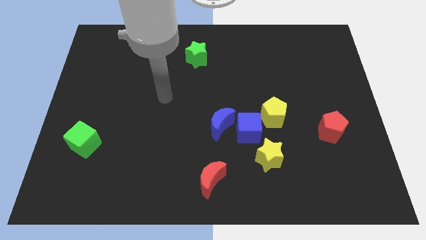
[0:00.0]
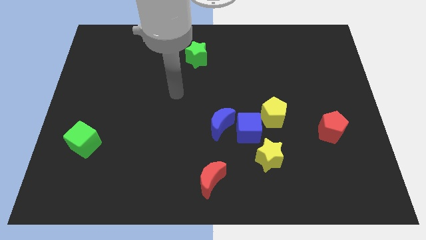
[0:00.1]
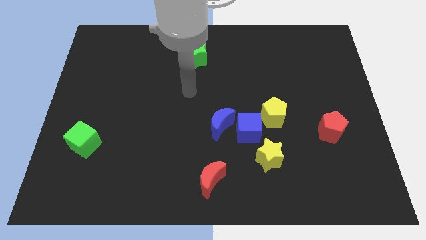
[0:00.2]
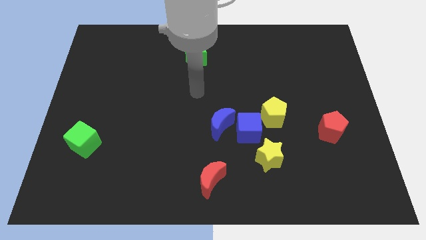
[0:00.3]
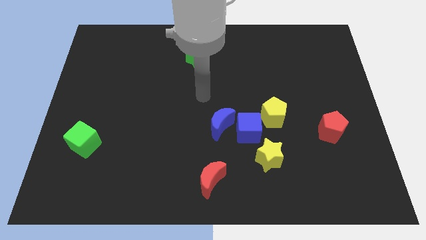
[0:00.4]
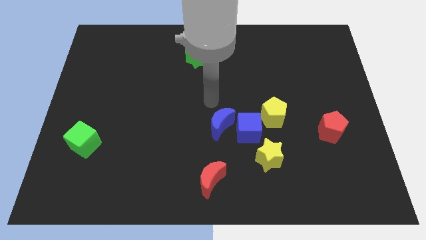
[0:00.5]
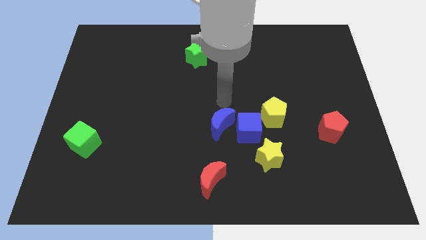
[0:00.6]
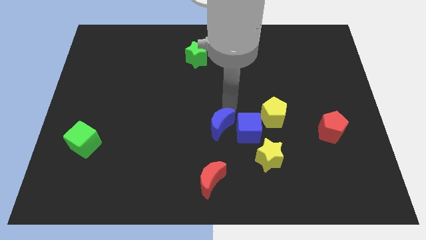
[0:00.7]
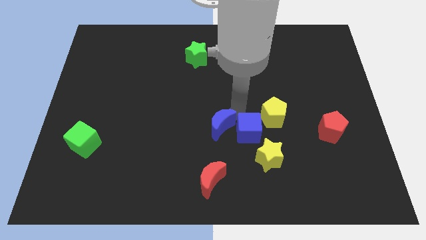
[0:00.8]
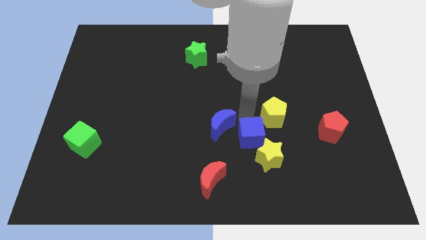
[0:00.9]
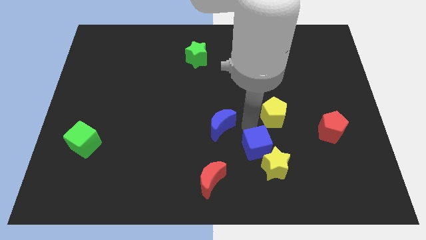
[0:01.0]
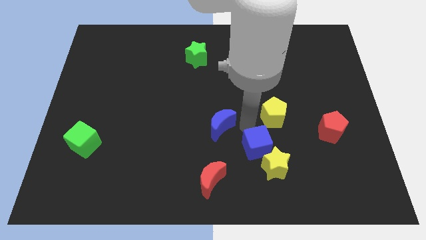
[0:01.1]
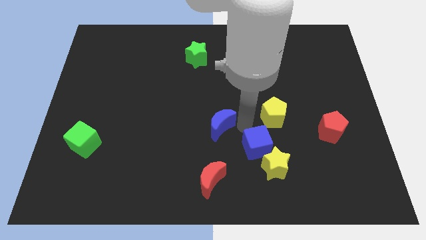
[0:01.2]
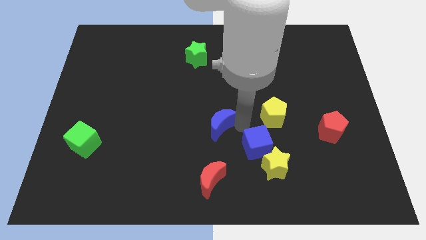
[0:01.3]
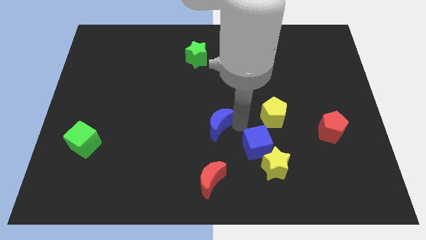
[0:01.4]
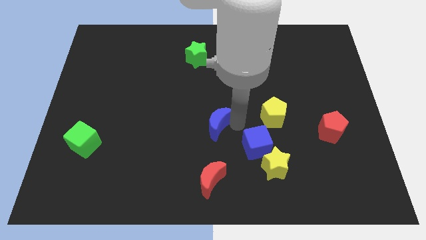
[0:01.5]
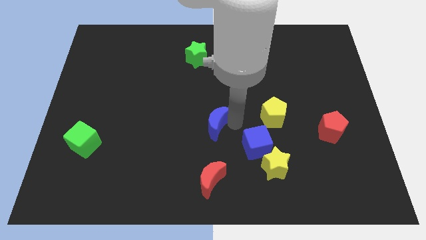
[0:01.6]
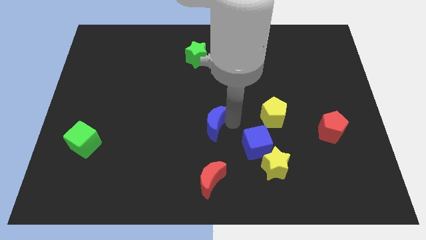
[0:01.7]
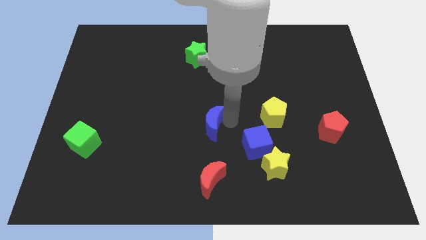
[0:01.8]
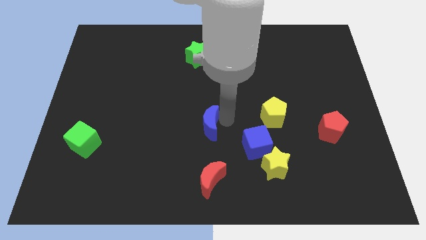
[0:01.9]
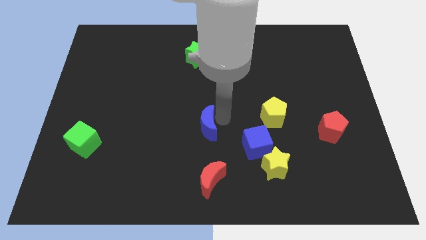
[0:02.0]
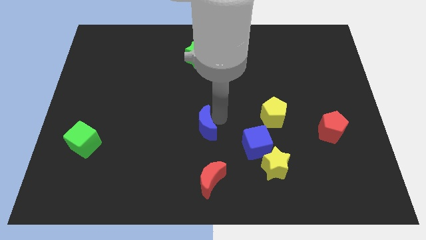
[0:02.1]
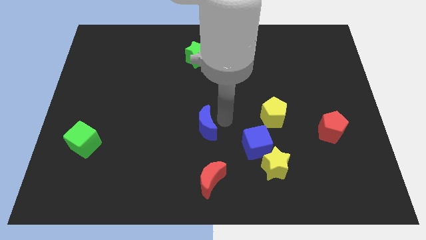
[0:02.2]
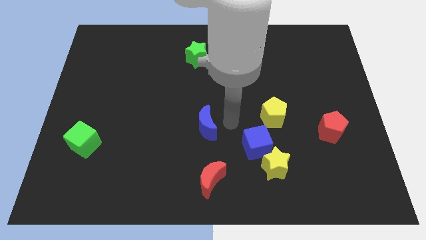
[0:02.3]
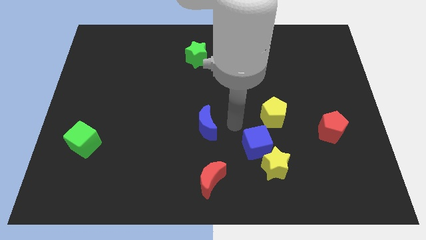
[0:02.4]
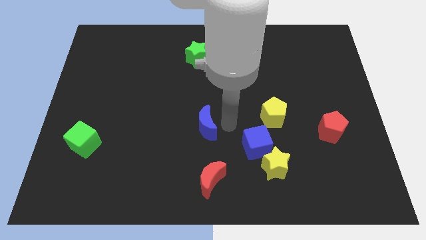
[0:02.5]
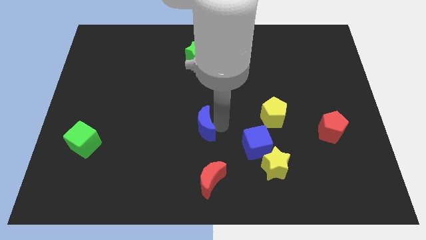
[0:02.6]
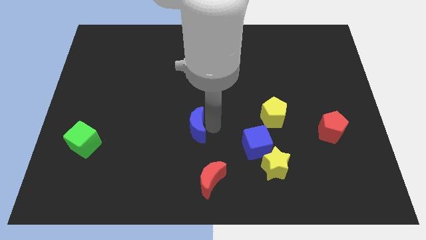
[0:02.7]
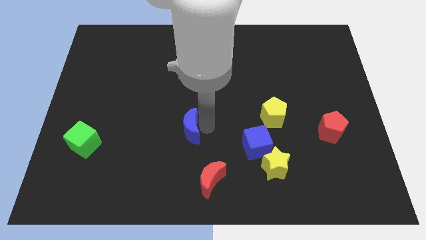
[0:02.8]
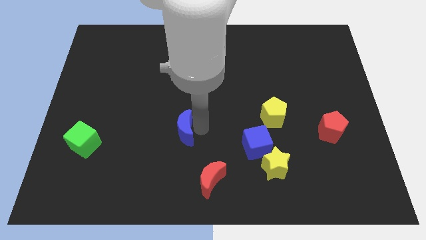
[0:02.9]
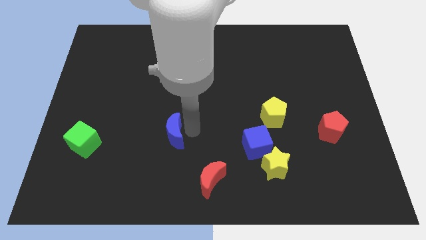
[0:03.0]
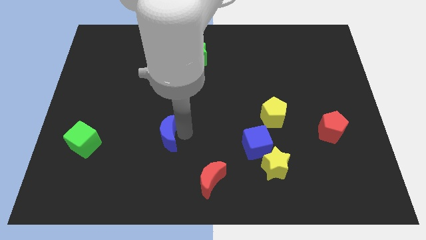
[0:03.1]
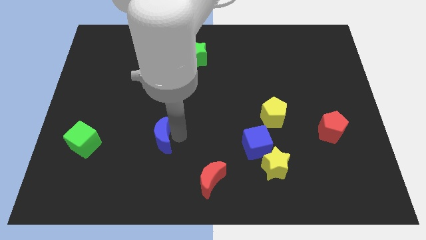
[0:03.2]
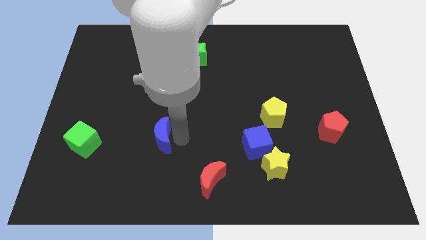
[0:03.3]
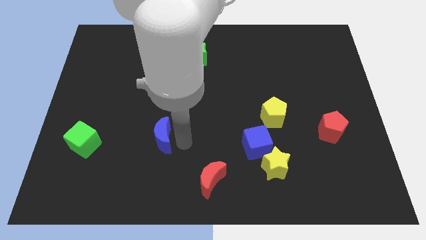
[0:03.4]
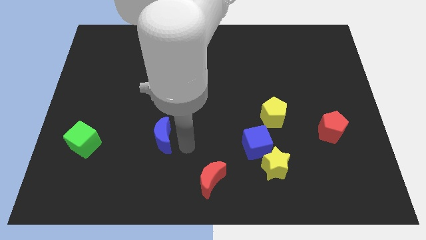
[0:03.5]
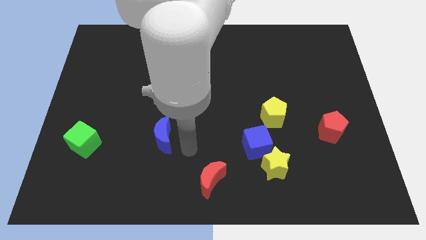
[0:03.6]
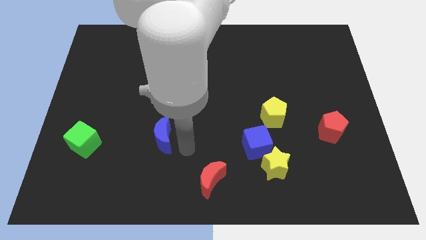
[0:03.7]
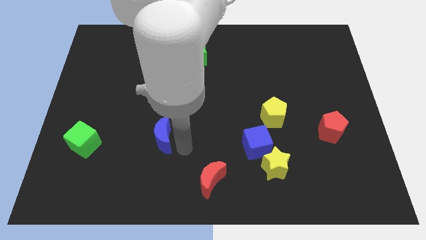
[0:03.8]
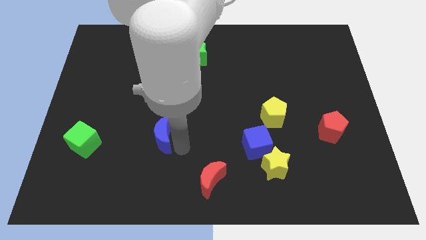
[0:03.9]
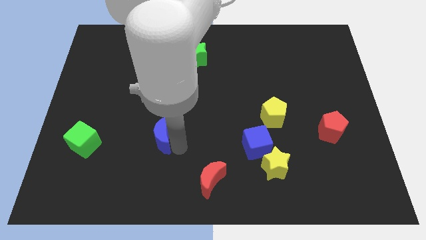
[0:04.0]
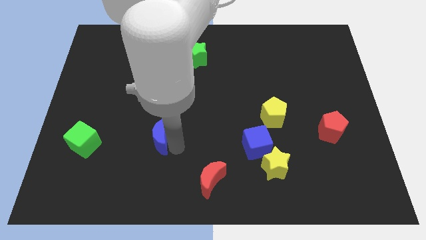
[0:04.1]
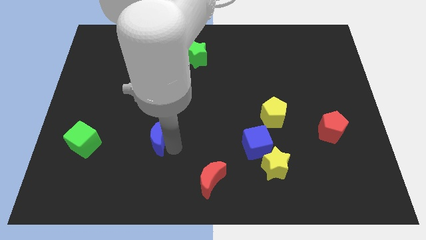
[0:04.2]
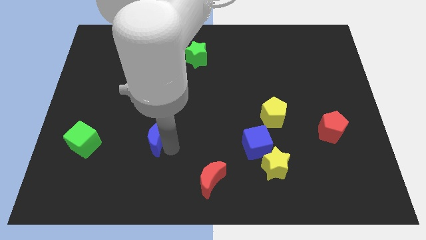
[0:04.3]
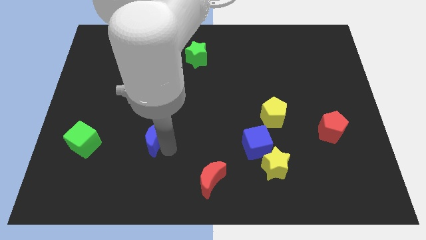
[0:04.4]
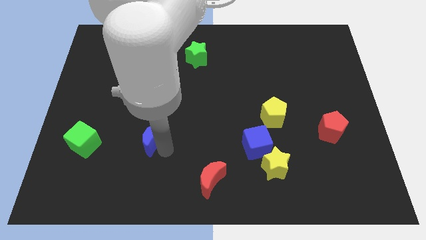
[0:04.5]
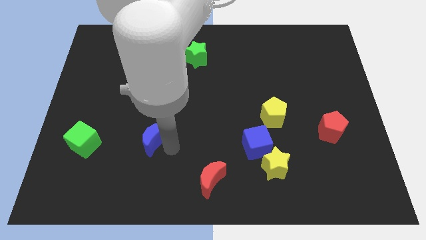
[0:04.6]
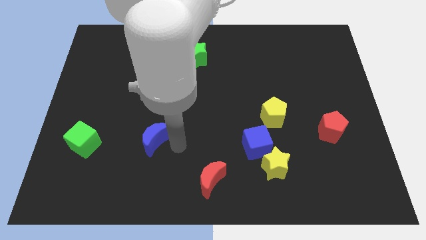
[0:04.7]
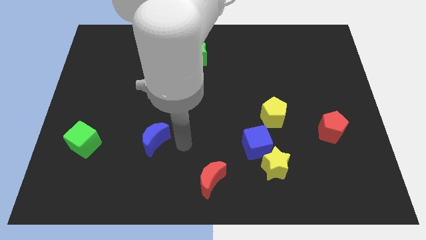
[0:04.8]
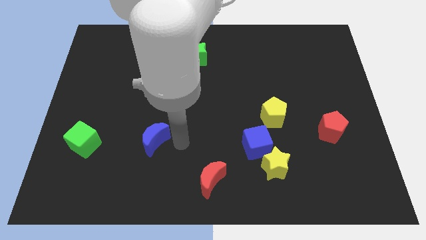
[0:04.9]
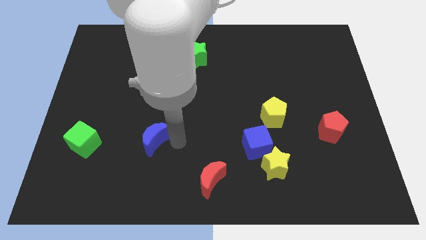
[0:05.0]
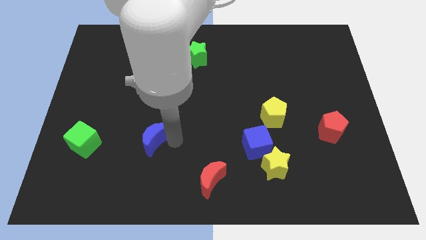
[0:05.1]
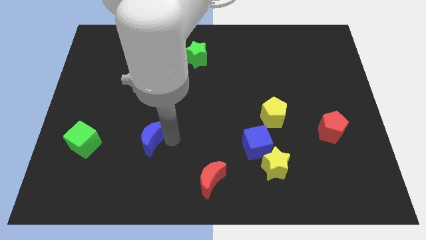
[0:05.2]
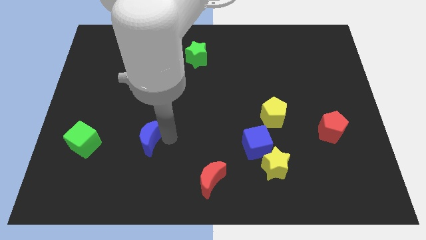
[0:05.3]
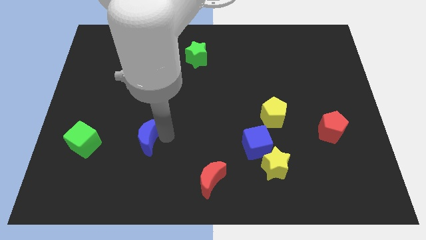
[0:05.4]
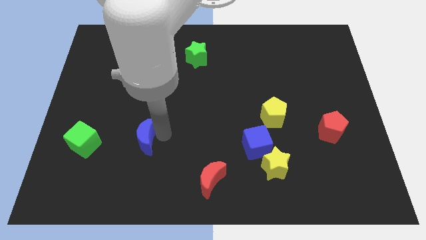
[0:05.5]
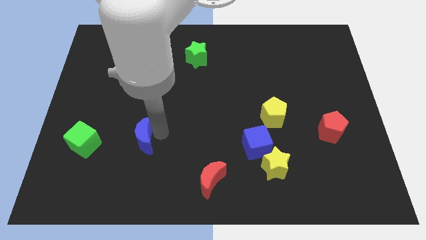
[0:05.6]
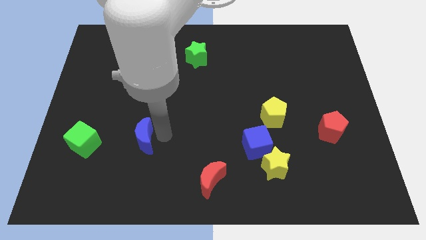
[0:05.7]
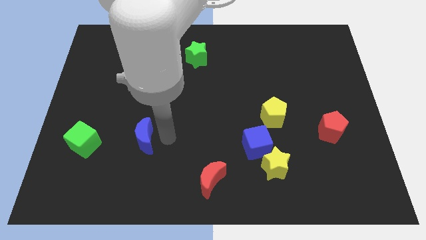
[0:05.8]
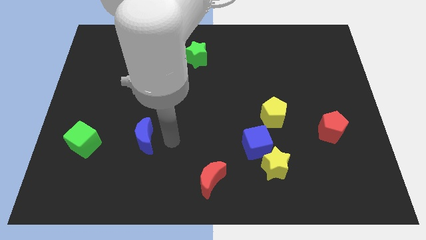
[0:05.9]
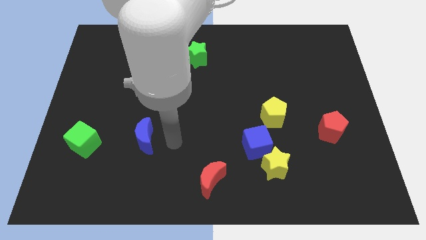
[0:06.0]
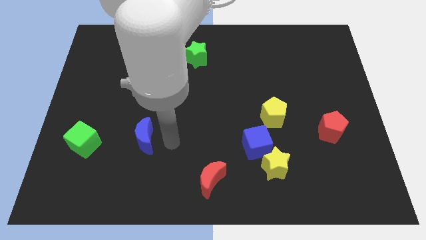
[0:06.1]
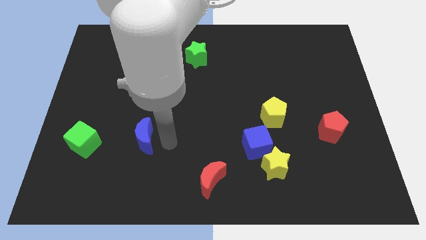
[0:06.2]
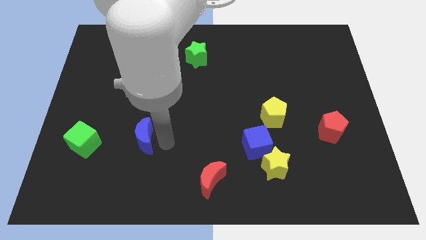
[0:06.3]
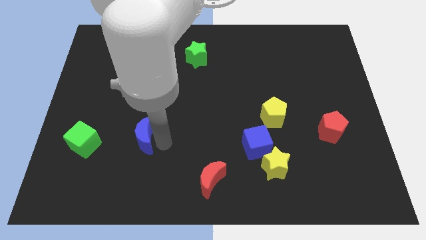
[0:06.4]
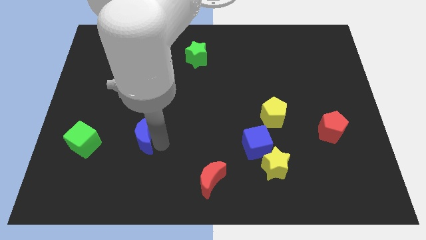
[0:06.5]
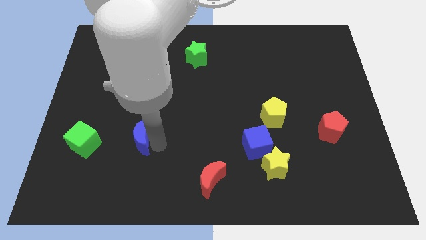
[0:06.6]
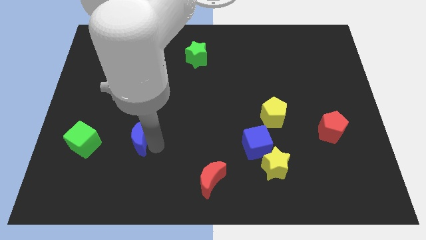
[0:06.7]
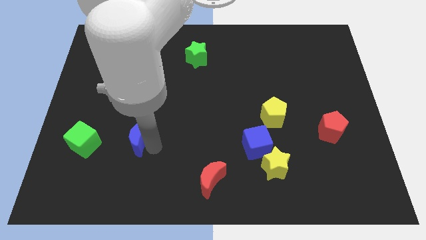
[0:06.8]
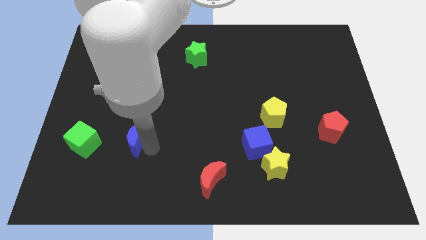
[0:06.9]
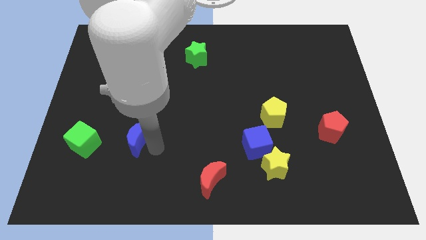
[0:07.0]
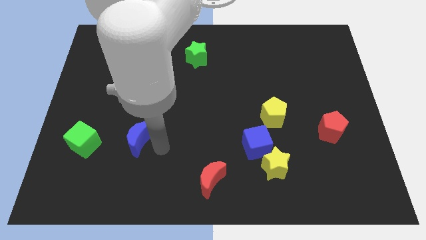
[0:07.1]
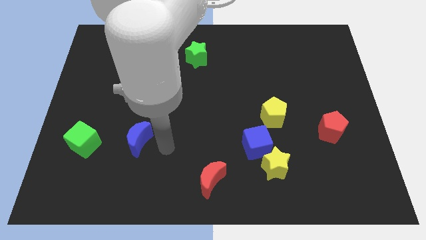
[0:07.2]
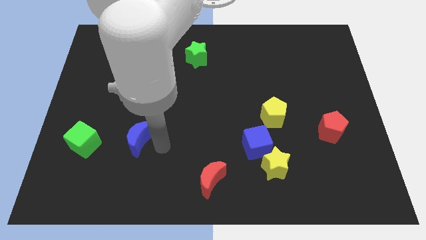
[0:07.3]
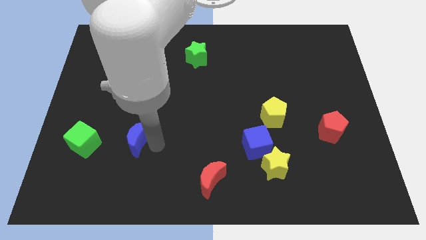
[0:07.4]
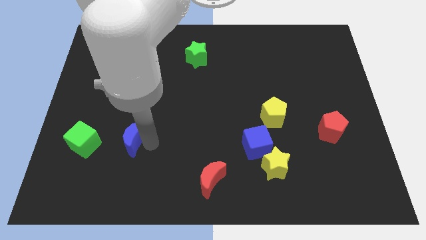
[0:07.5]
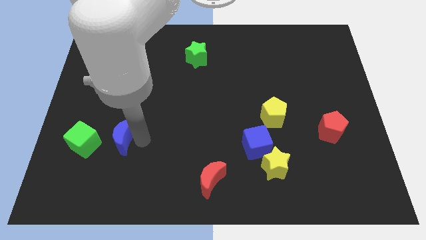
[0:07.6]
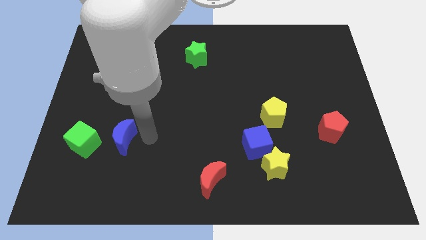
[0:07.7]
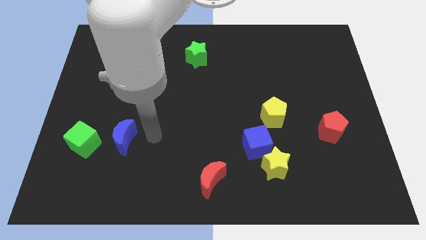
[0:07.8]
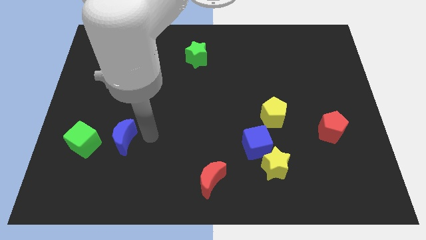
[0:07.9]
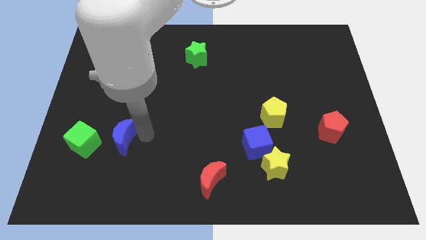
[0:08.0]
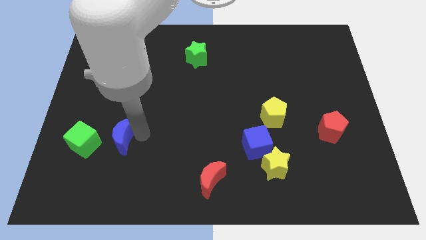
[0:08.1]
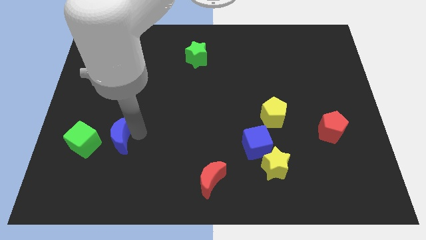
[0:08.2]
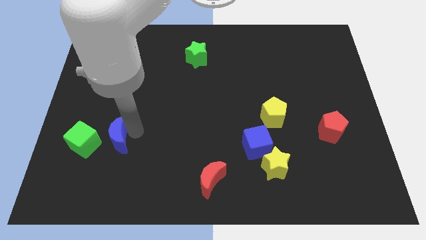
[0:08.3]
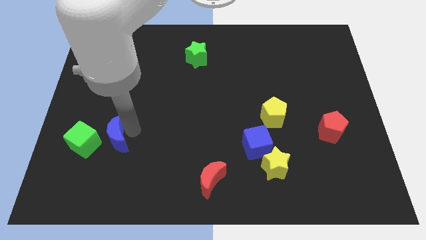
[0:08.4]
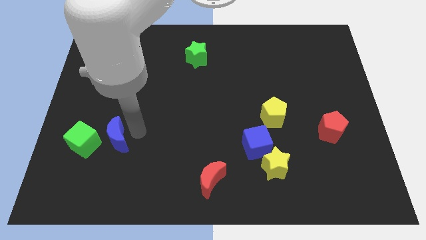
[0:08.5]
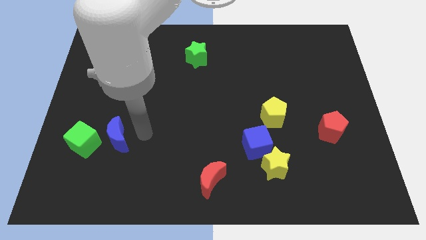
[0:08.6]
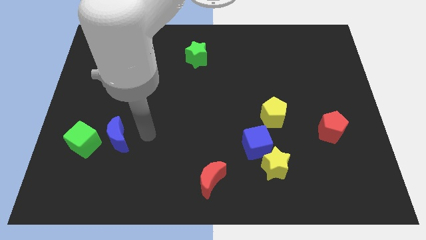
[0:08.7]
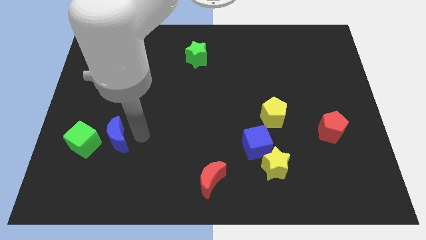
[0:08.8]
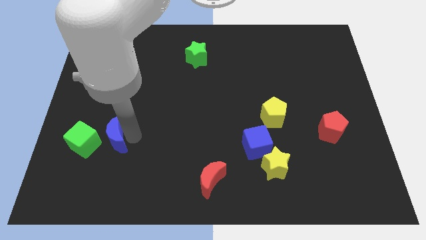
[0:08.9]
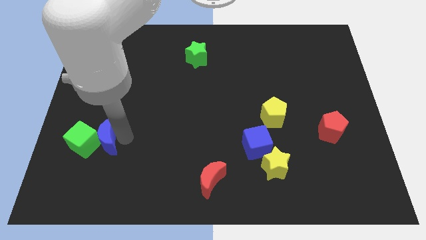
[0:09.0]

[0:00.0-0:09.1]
slide the blue moon next to the green cube
